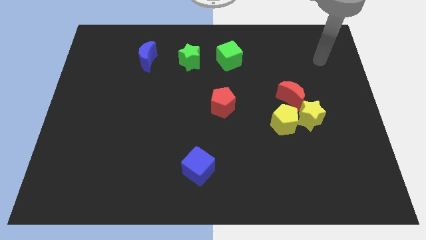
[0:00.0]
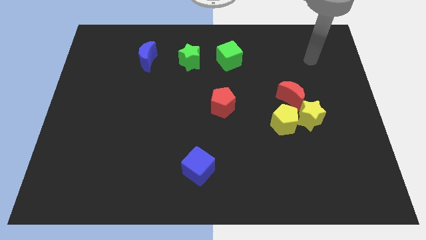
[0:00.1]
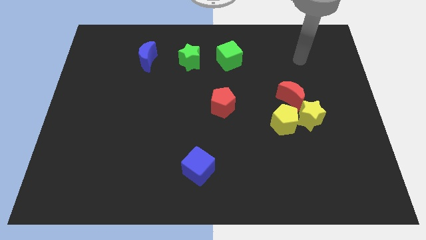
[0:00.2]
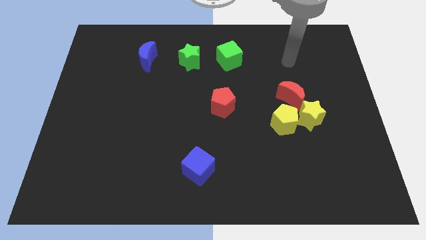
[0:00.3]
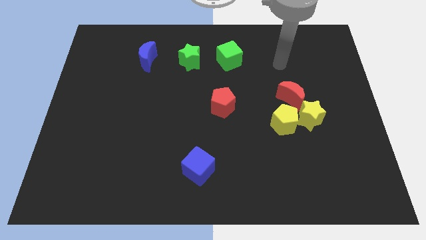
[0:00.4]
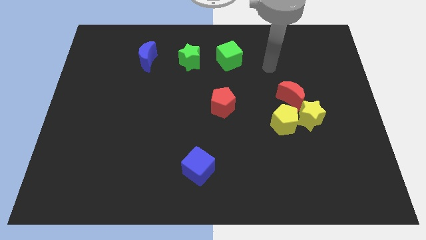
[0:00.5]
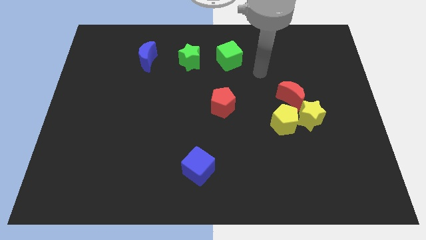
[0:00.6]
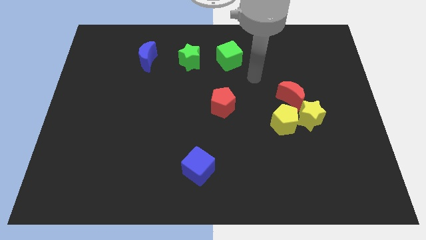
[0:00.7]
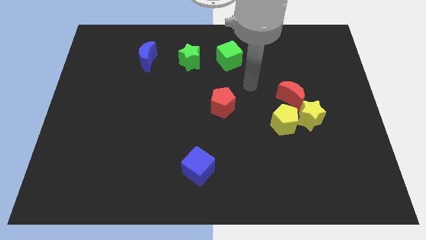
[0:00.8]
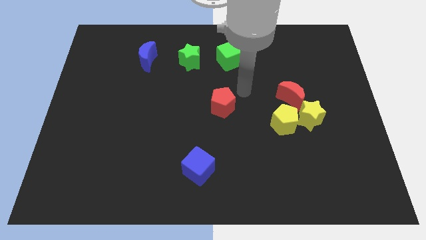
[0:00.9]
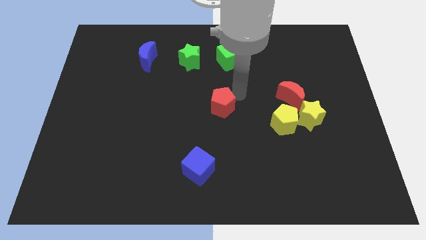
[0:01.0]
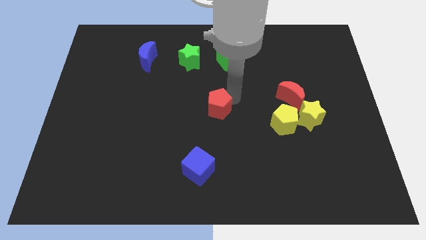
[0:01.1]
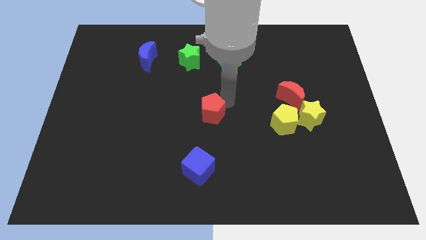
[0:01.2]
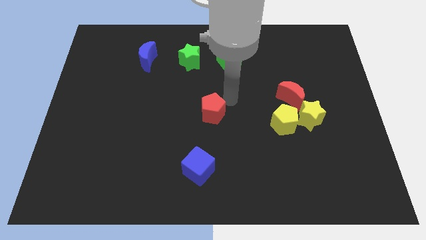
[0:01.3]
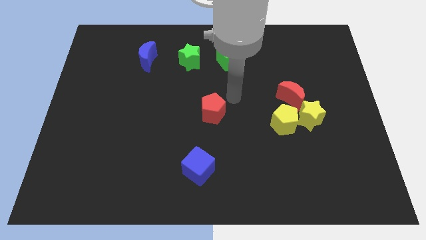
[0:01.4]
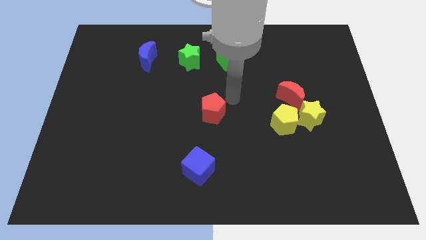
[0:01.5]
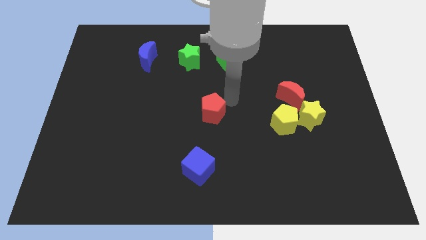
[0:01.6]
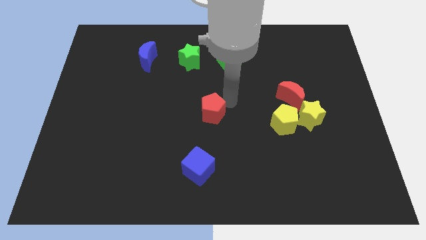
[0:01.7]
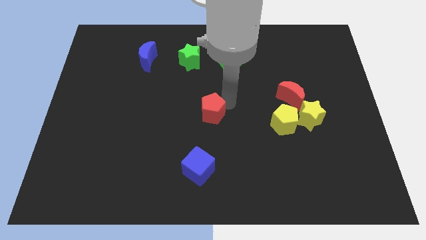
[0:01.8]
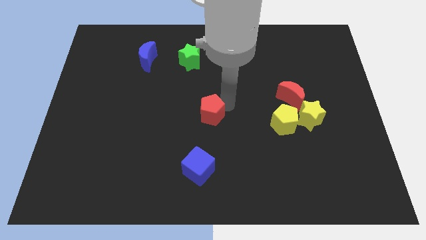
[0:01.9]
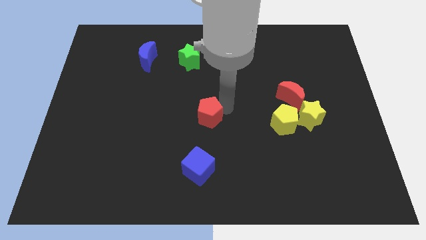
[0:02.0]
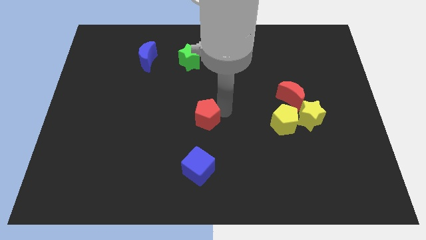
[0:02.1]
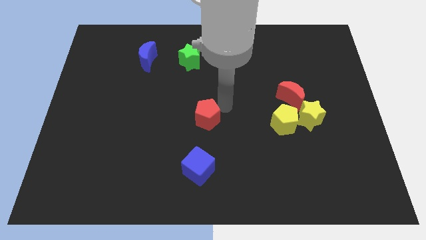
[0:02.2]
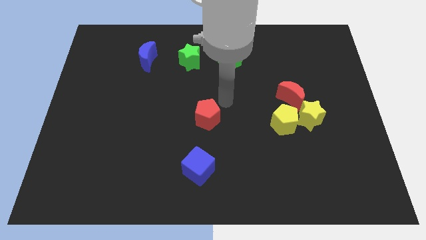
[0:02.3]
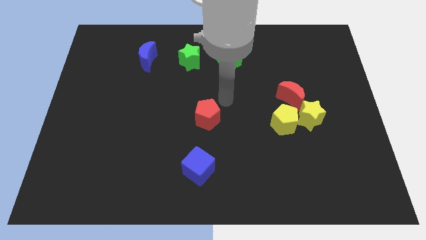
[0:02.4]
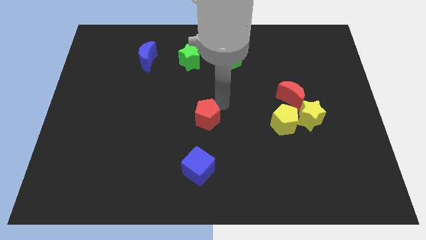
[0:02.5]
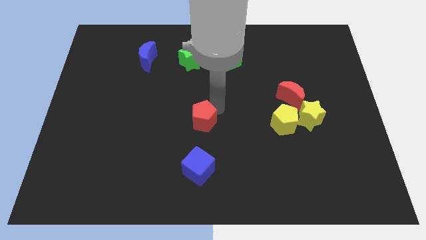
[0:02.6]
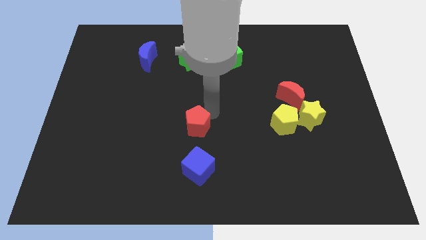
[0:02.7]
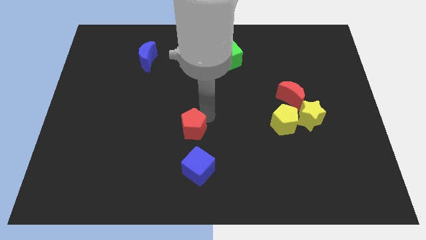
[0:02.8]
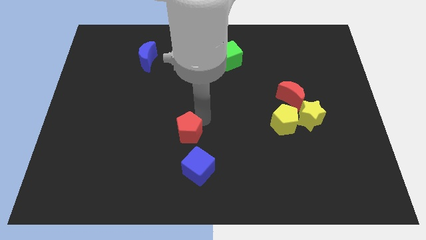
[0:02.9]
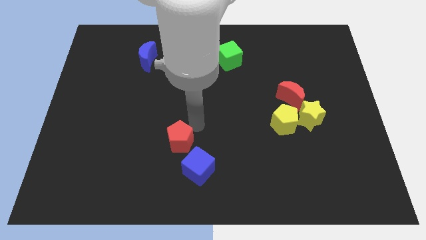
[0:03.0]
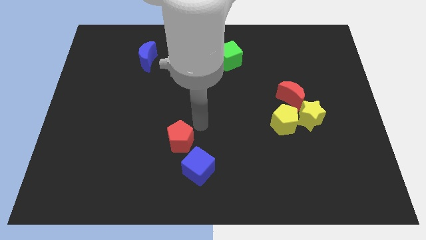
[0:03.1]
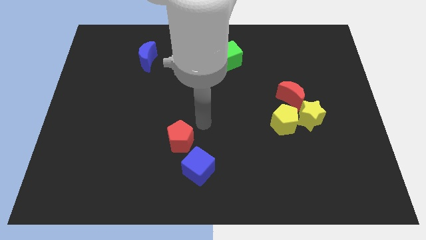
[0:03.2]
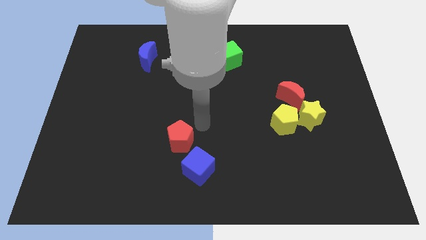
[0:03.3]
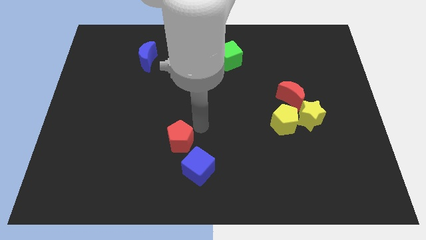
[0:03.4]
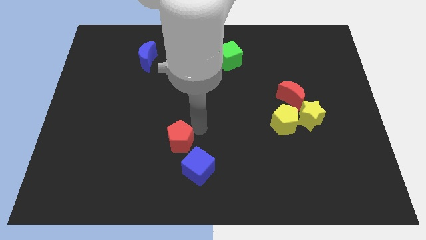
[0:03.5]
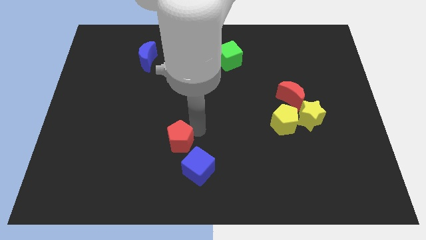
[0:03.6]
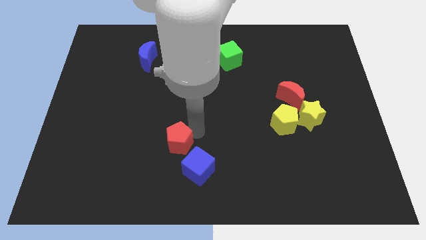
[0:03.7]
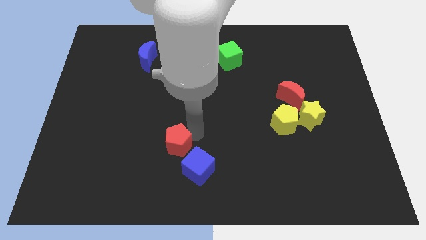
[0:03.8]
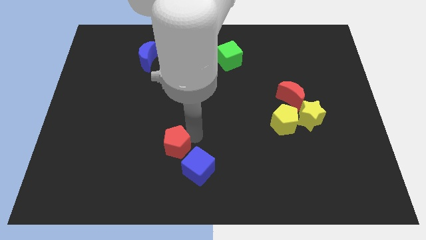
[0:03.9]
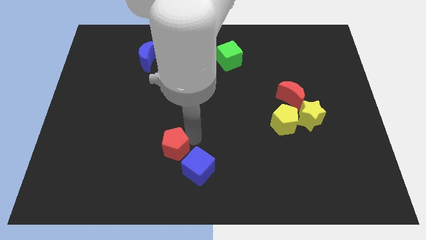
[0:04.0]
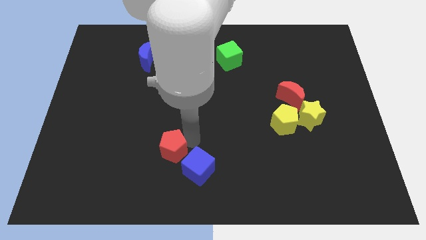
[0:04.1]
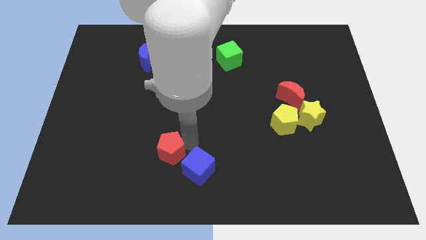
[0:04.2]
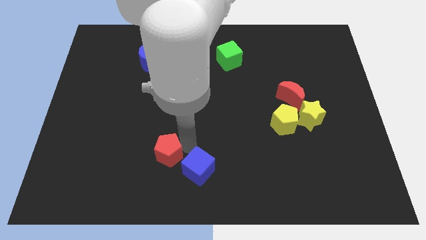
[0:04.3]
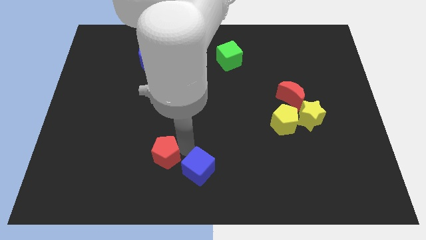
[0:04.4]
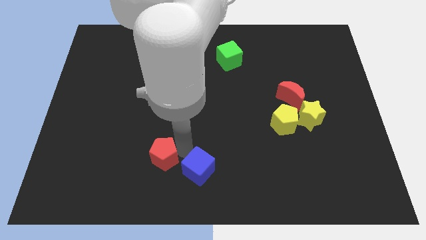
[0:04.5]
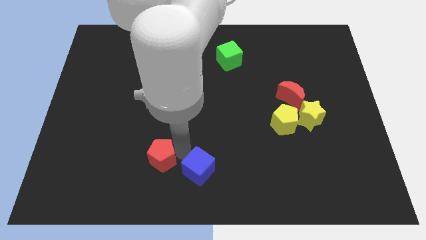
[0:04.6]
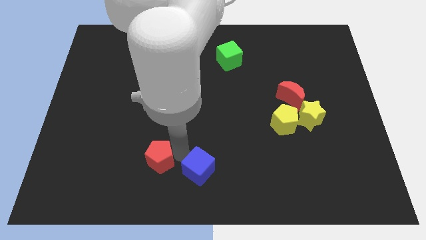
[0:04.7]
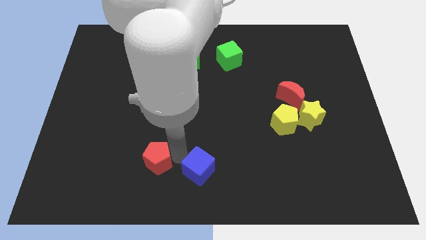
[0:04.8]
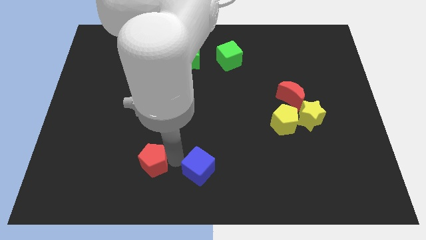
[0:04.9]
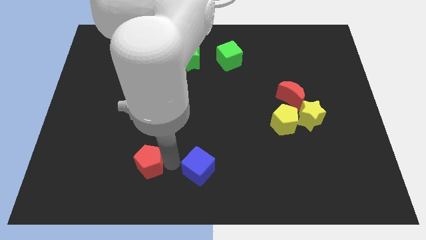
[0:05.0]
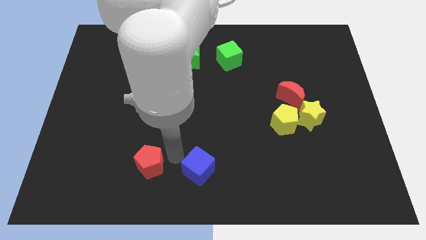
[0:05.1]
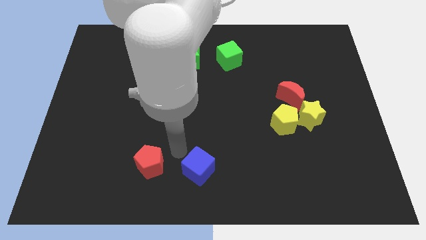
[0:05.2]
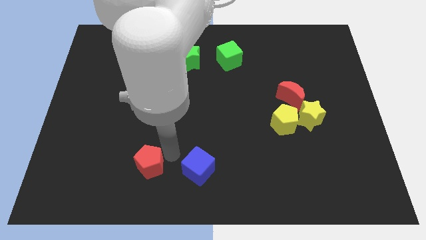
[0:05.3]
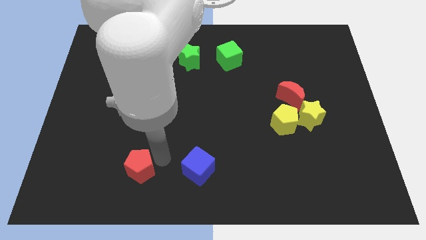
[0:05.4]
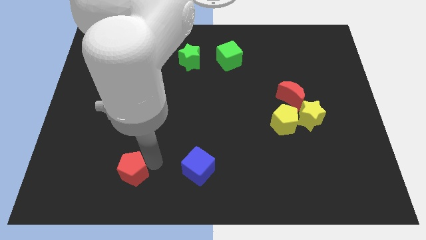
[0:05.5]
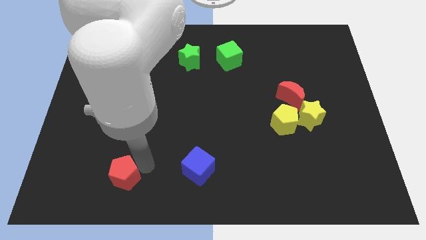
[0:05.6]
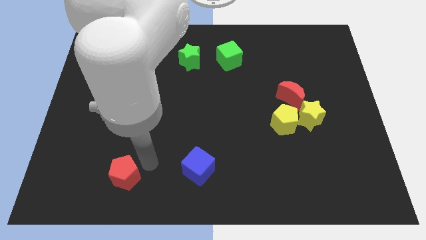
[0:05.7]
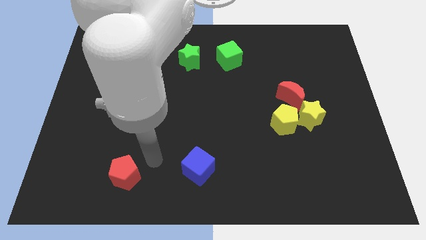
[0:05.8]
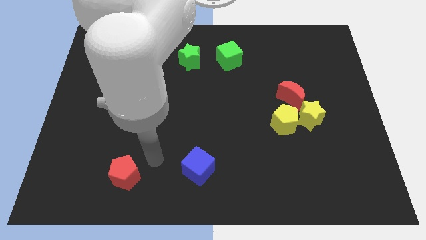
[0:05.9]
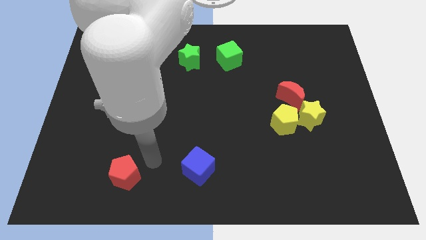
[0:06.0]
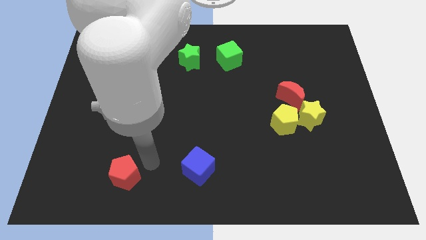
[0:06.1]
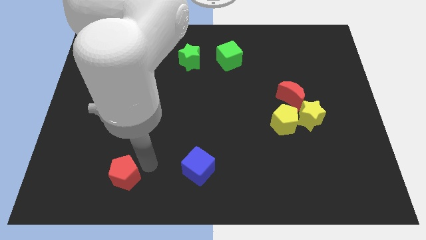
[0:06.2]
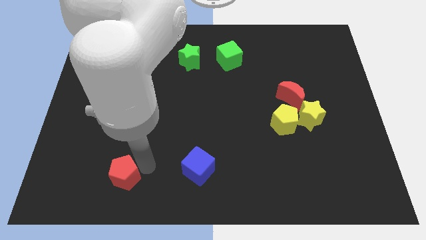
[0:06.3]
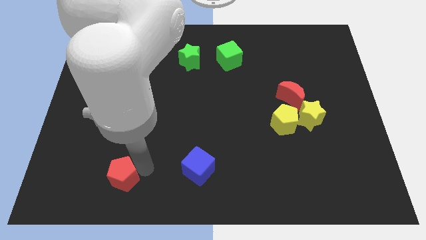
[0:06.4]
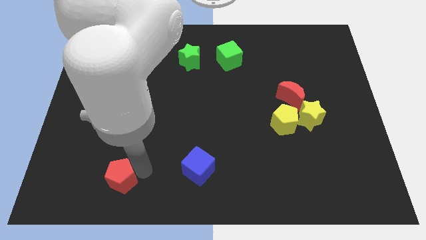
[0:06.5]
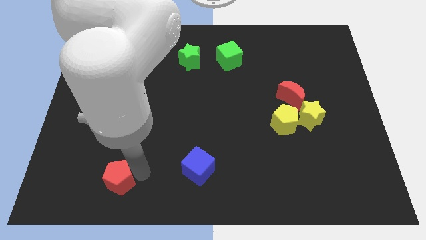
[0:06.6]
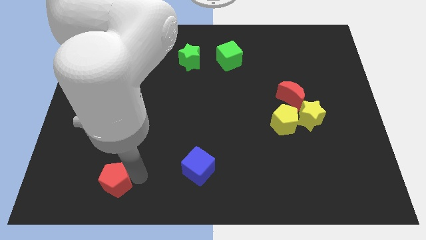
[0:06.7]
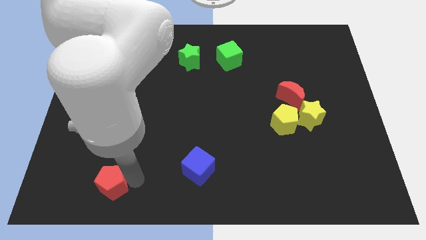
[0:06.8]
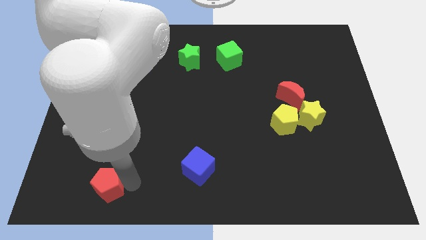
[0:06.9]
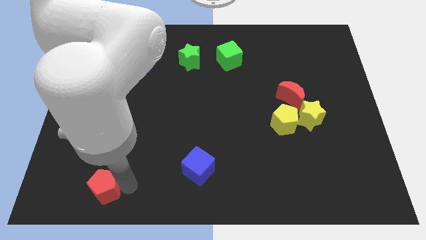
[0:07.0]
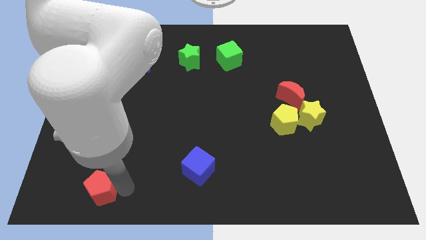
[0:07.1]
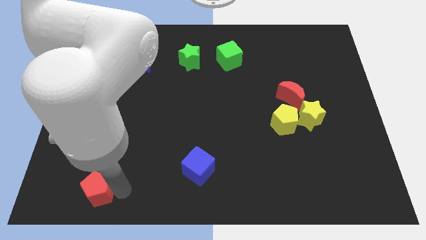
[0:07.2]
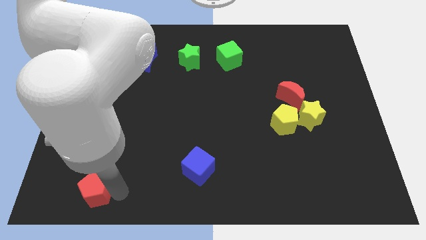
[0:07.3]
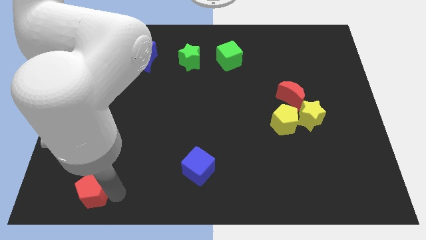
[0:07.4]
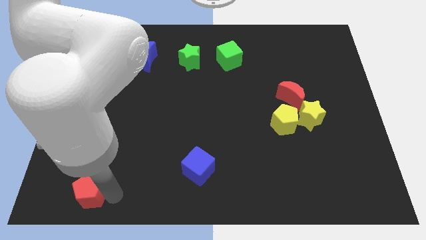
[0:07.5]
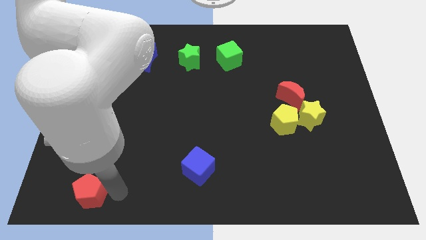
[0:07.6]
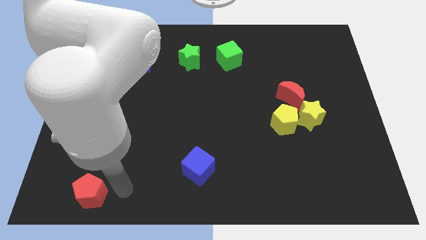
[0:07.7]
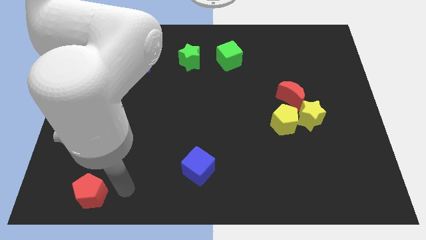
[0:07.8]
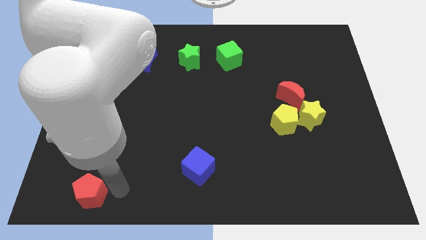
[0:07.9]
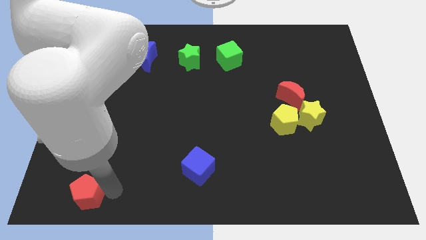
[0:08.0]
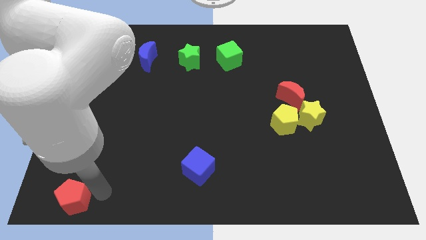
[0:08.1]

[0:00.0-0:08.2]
slide the red pentagon to the bottom left
